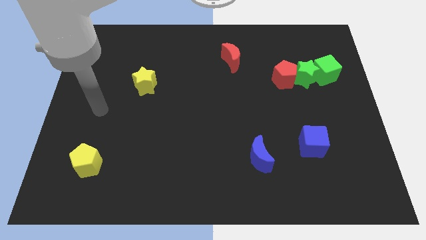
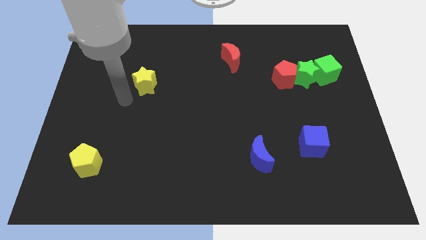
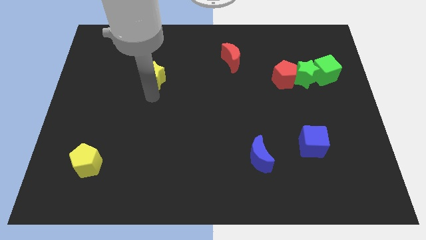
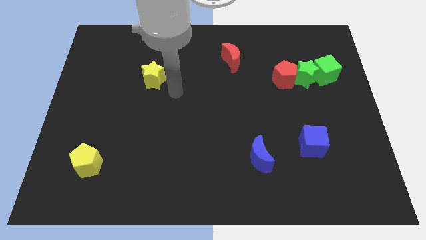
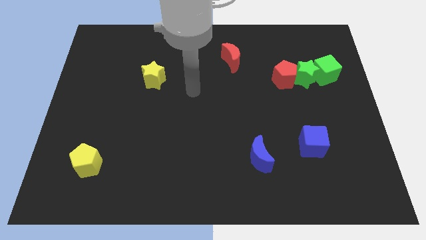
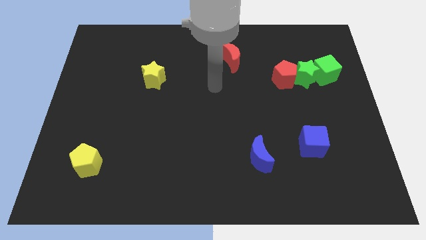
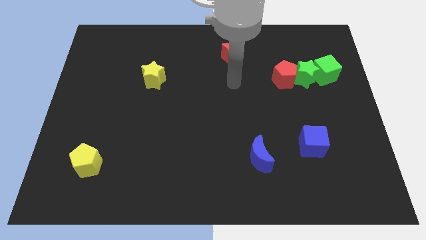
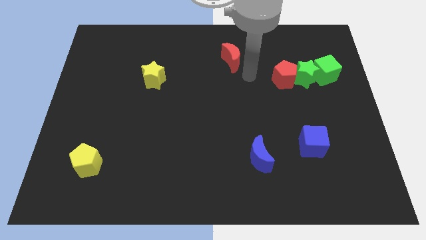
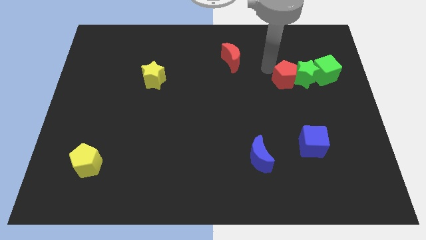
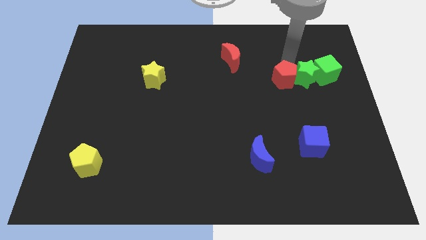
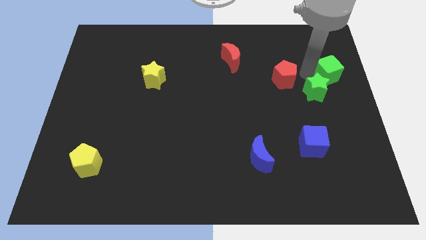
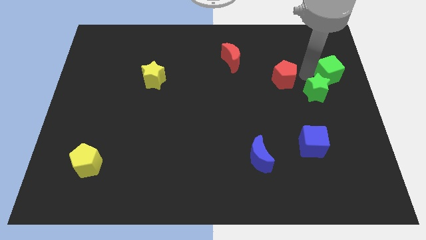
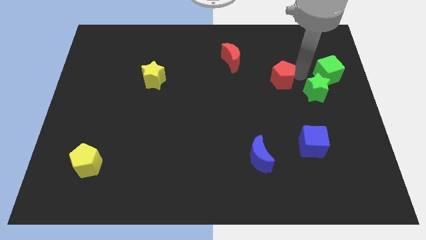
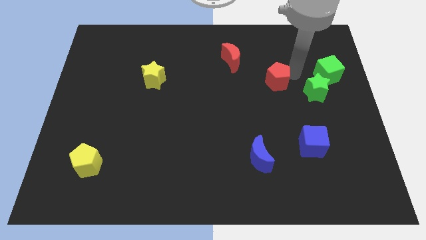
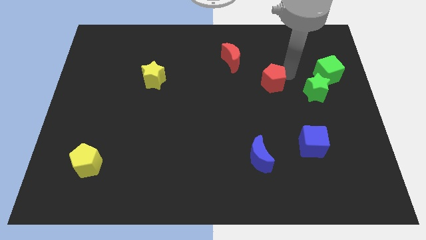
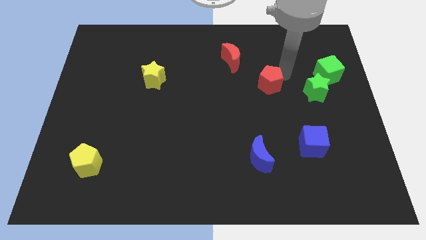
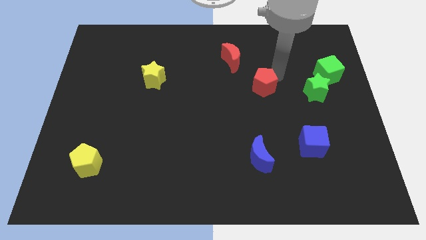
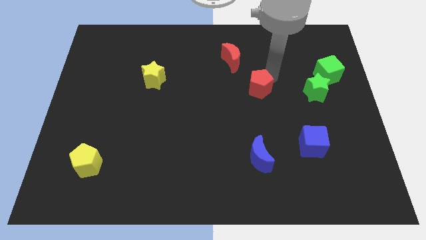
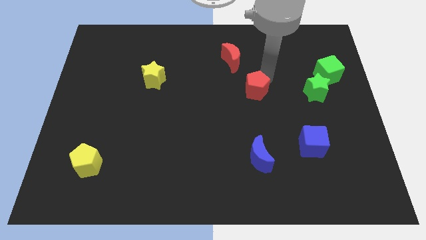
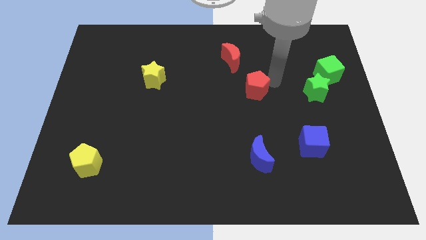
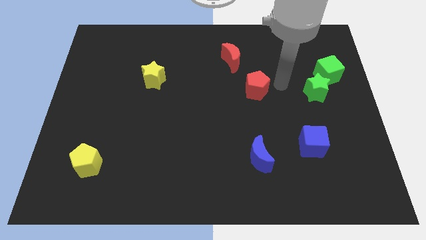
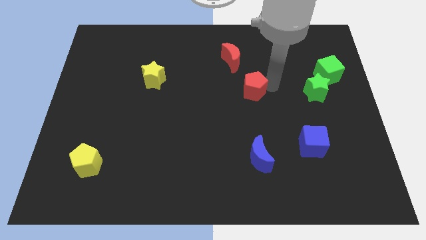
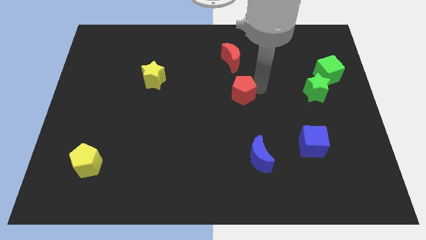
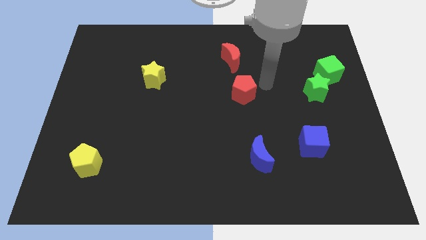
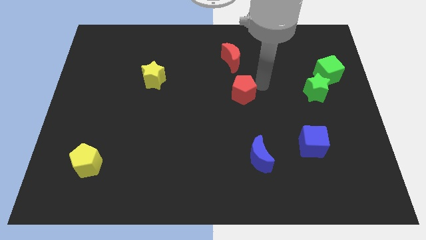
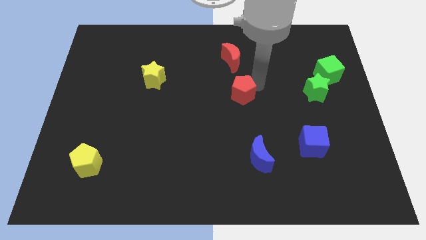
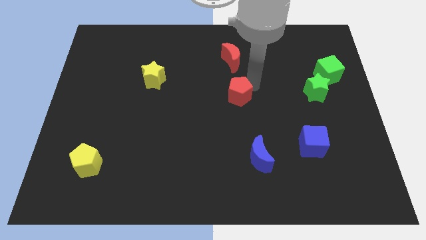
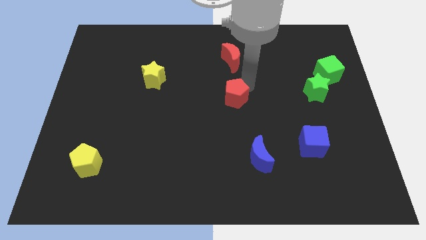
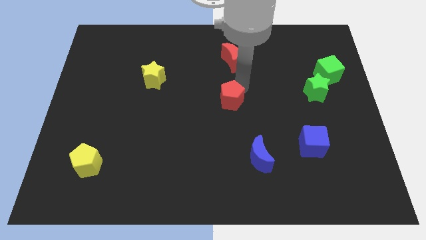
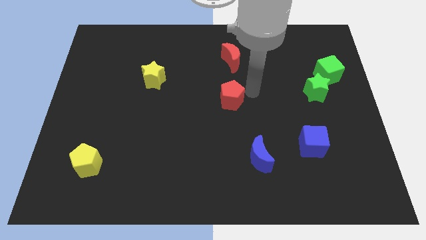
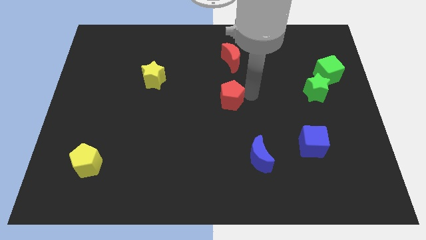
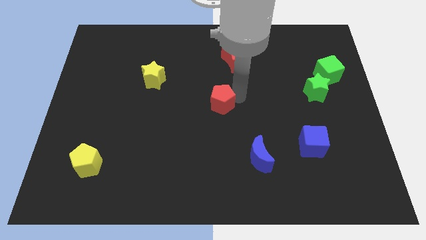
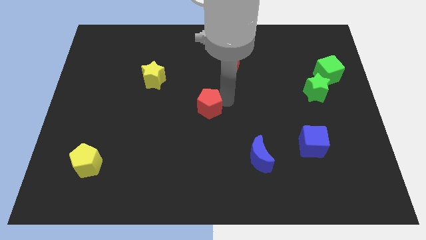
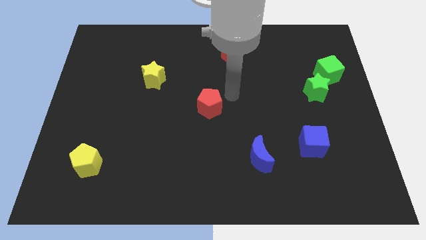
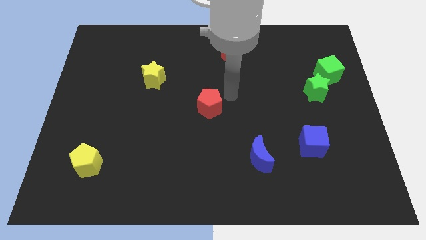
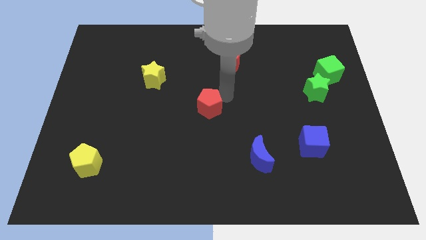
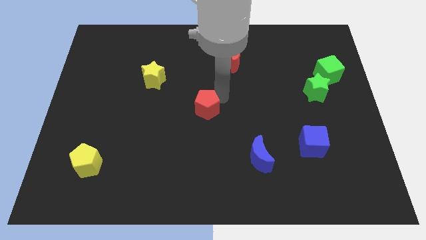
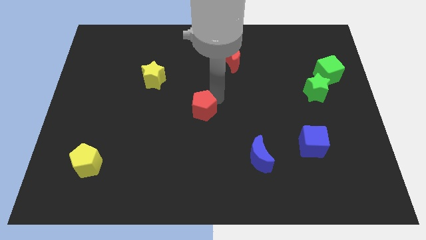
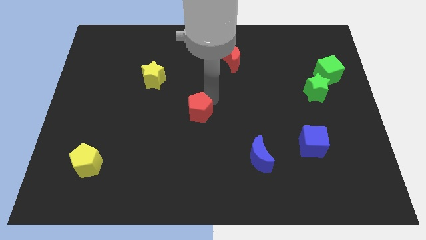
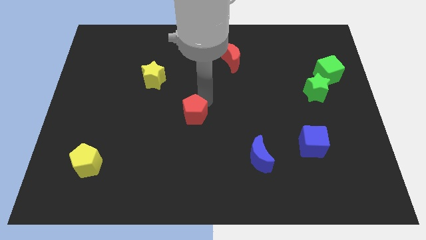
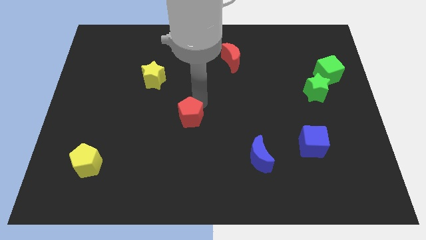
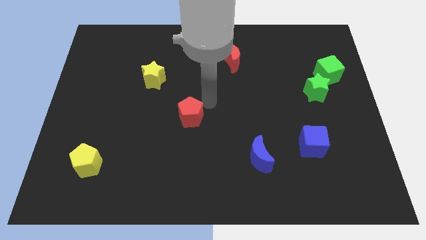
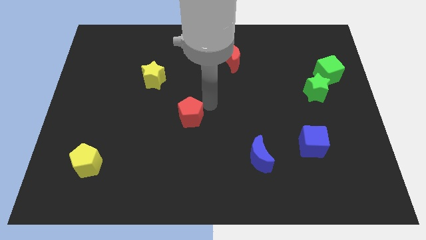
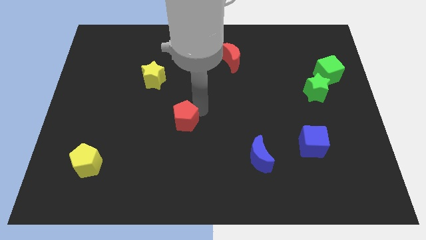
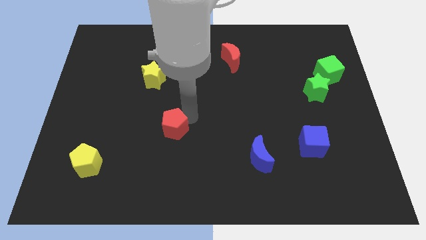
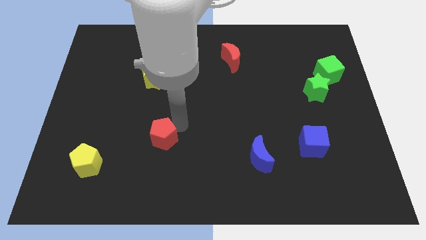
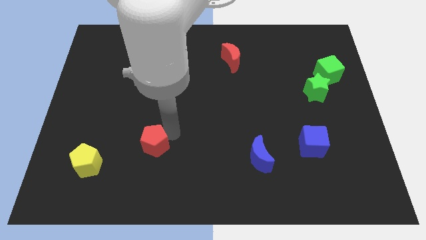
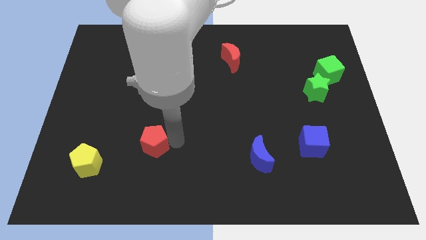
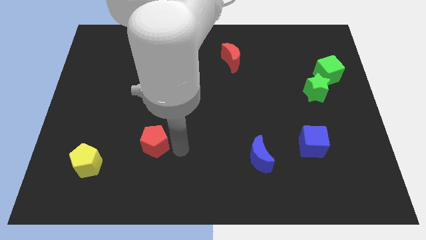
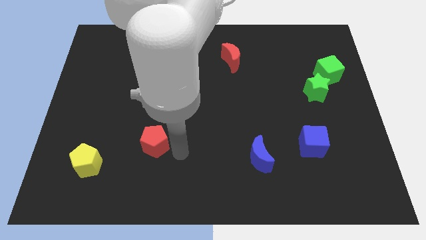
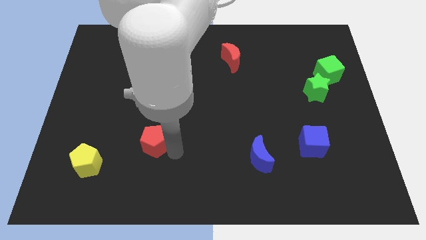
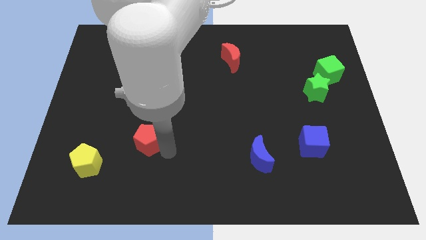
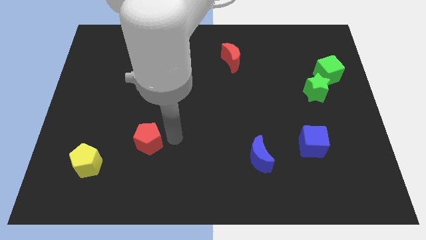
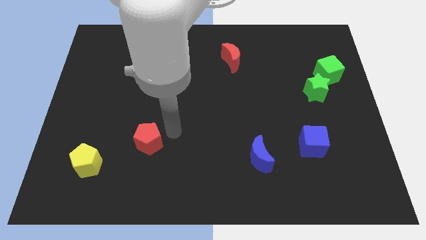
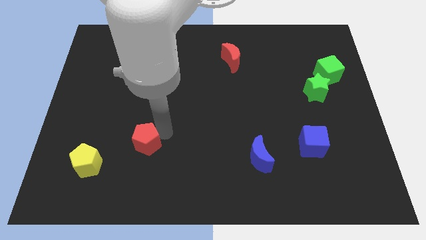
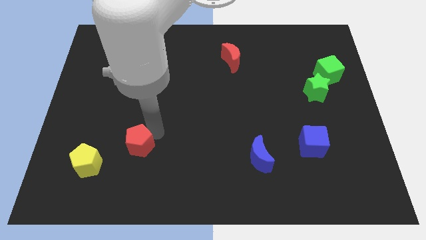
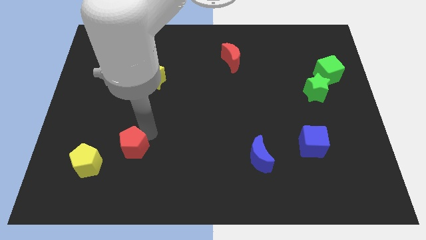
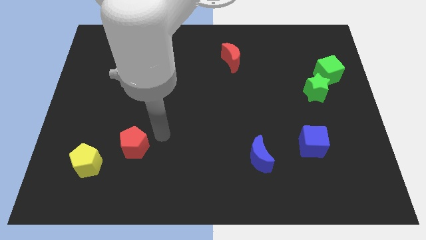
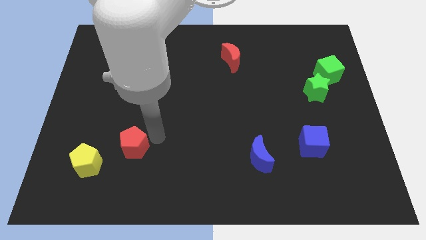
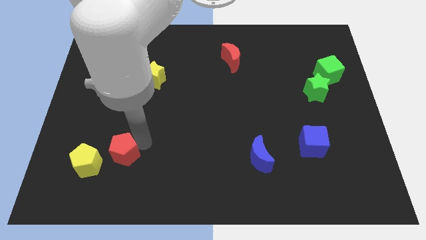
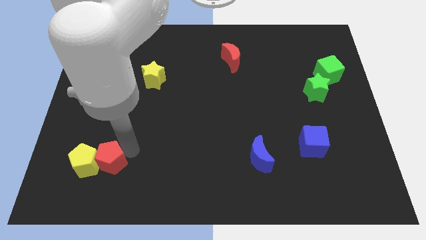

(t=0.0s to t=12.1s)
put the red pentagon to the yellow pentagon

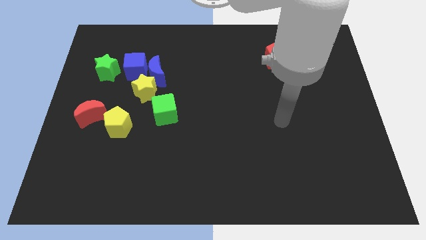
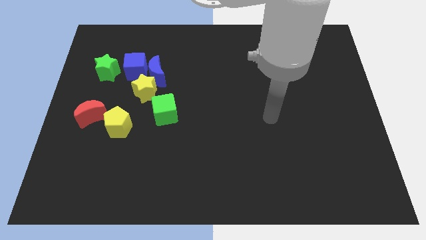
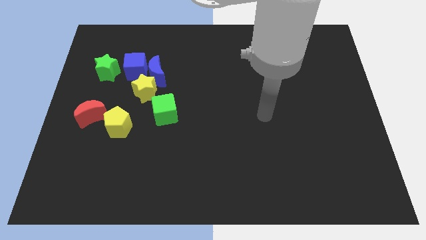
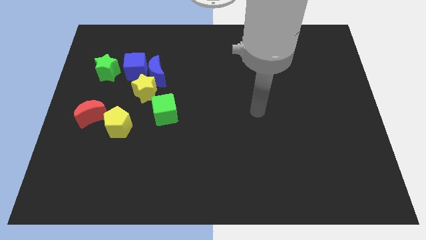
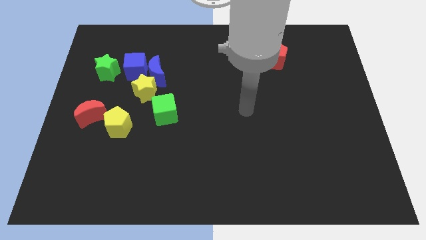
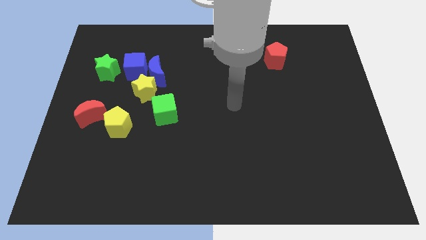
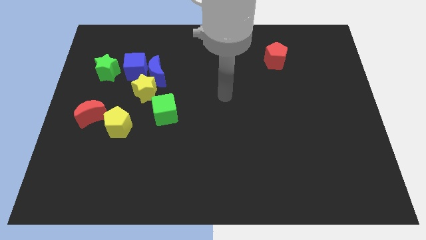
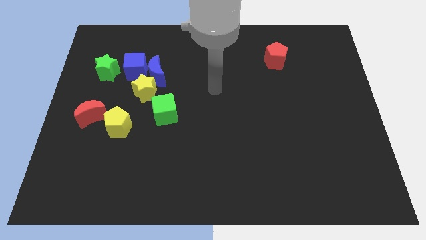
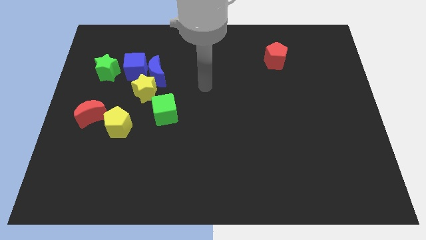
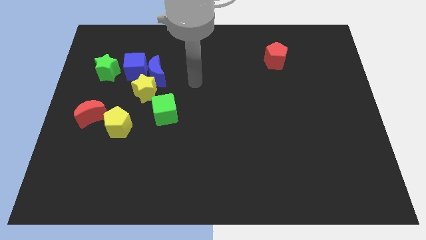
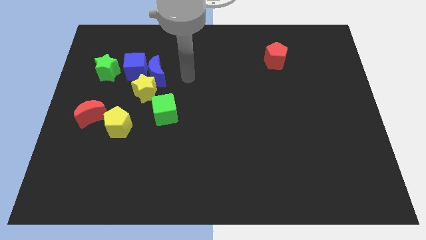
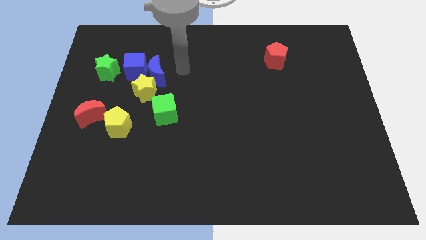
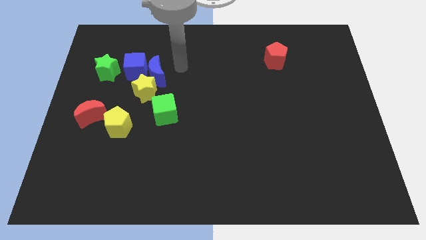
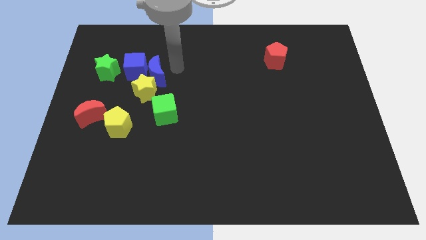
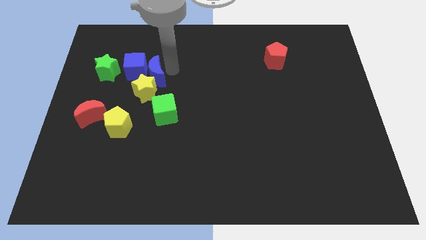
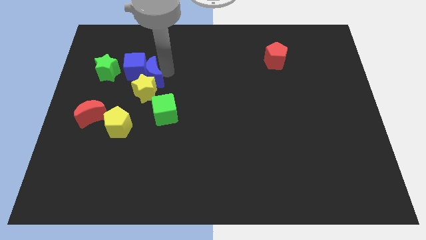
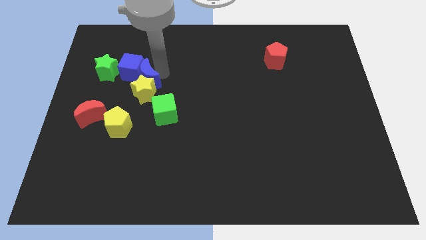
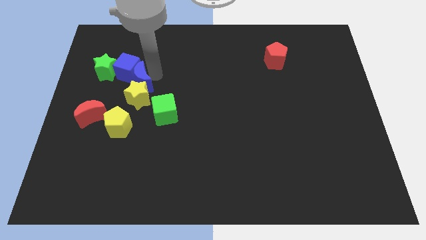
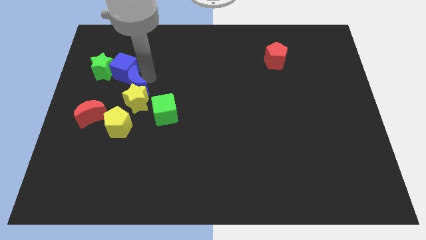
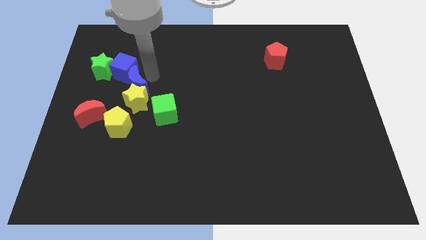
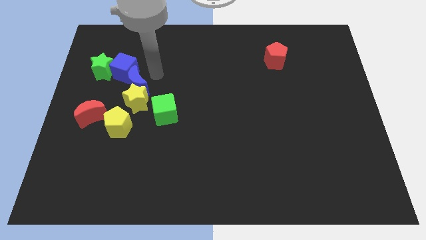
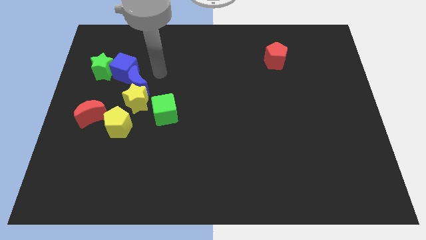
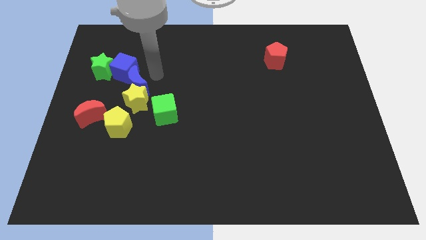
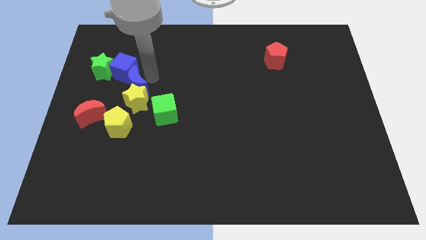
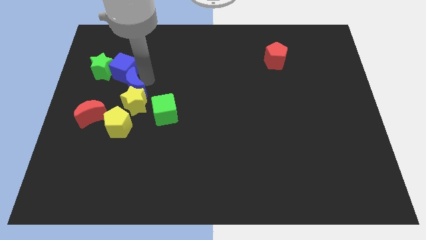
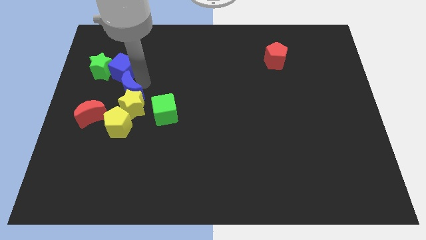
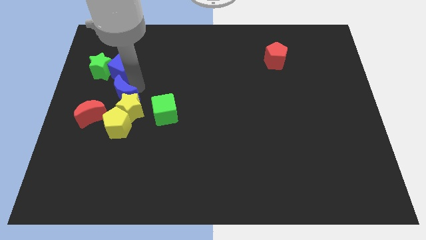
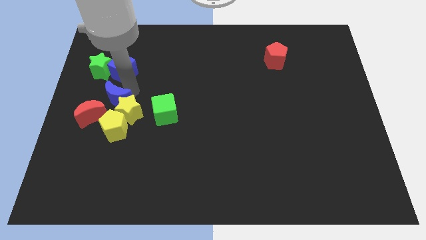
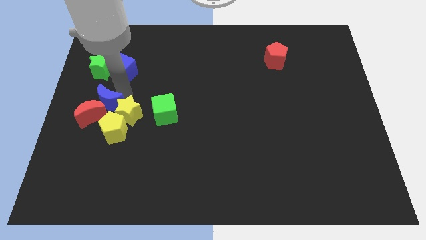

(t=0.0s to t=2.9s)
push the blue moon close to the red moon
